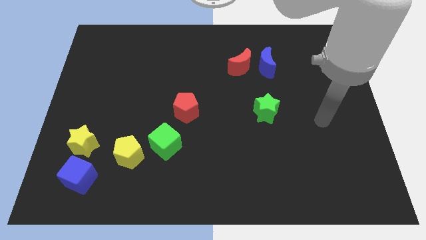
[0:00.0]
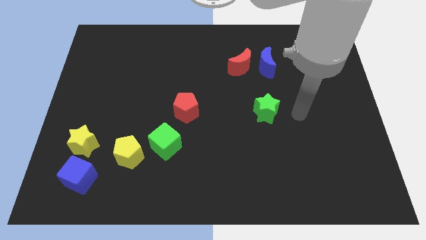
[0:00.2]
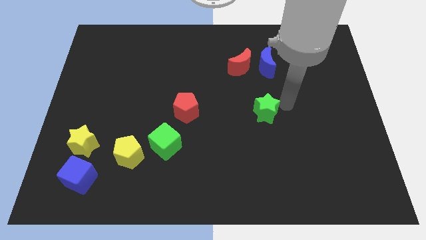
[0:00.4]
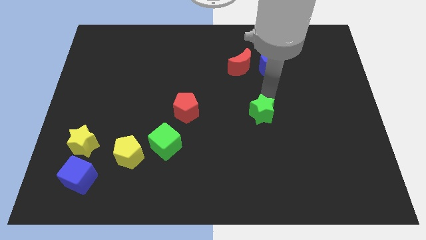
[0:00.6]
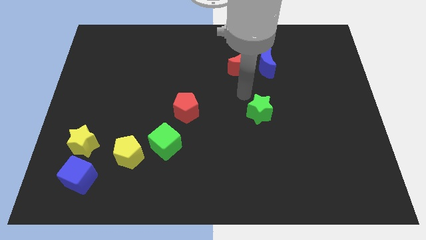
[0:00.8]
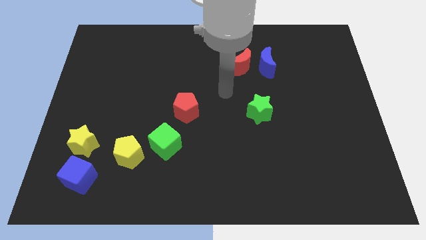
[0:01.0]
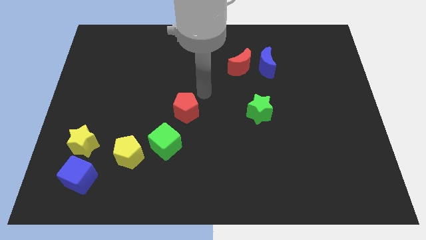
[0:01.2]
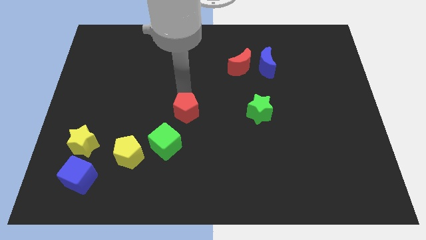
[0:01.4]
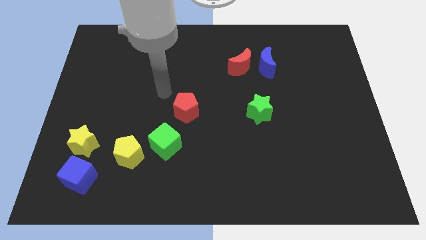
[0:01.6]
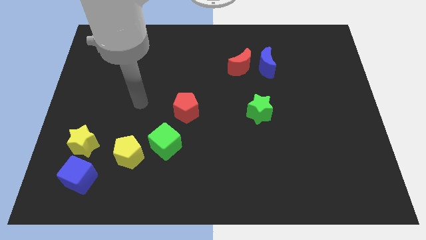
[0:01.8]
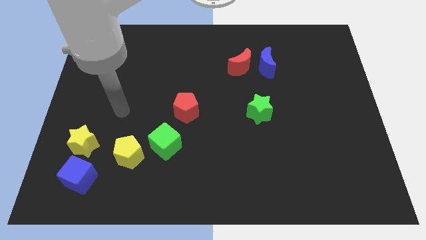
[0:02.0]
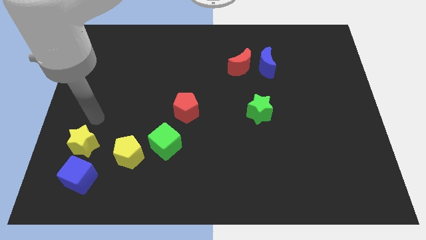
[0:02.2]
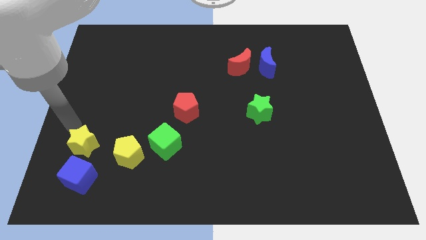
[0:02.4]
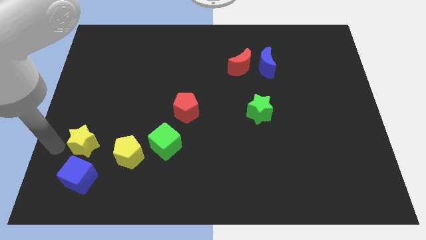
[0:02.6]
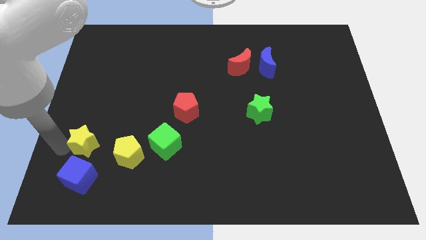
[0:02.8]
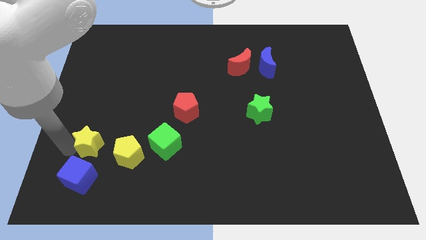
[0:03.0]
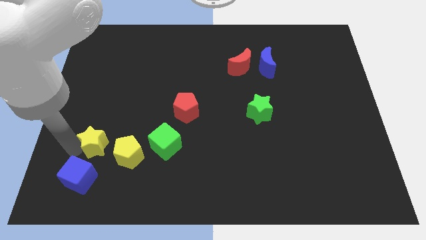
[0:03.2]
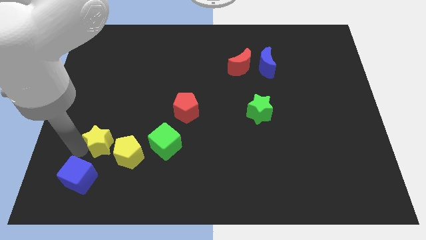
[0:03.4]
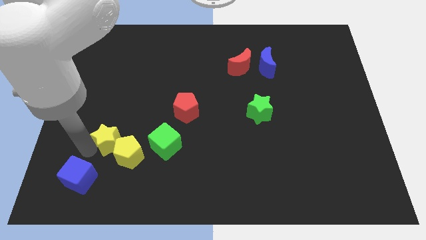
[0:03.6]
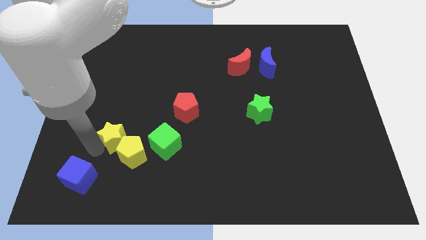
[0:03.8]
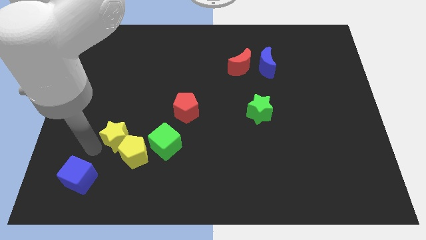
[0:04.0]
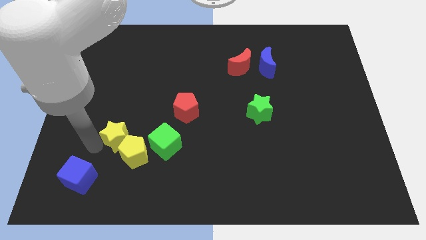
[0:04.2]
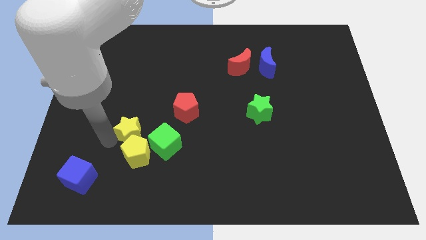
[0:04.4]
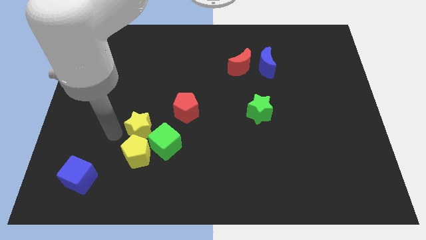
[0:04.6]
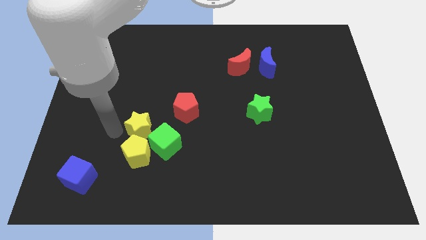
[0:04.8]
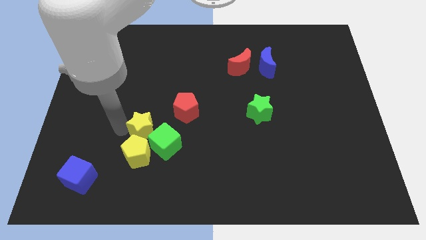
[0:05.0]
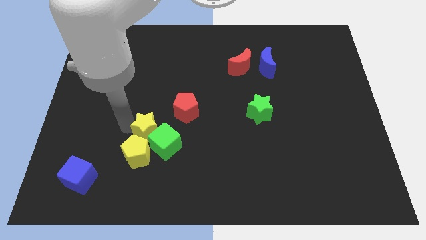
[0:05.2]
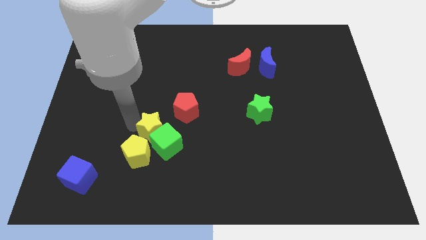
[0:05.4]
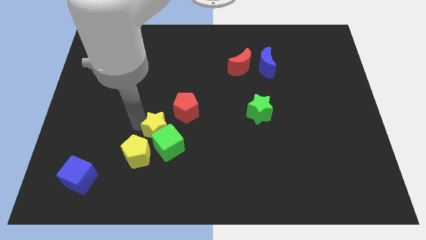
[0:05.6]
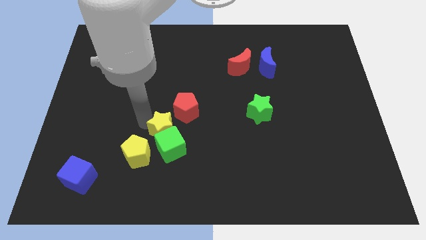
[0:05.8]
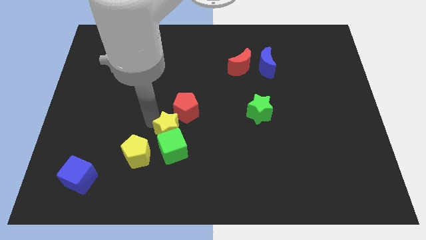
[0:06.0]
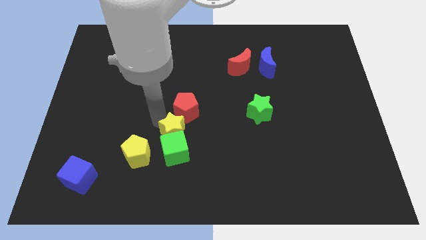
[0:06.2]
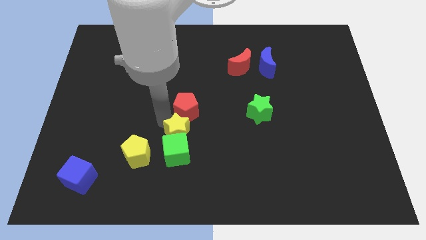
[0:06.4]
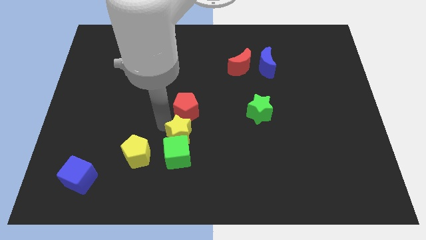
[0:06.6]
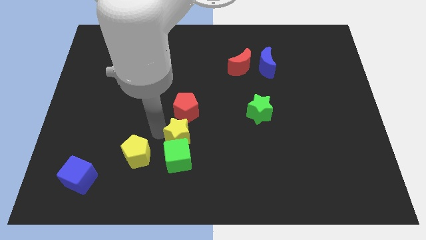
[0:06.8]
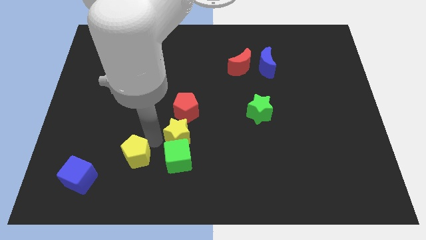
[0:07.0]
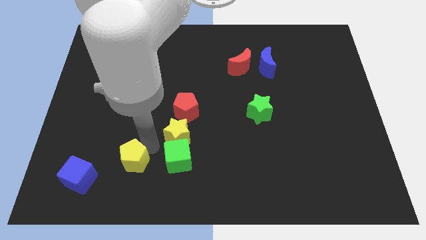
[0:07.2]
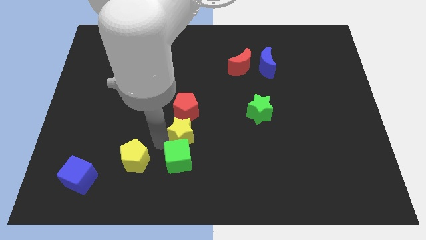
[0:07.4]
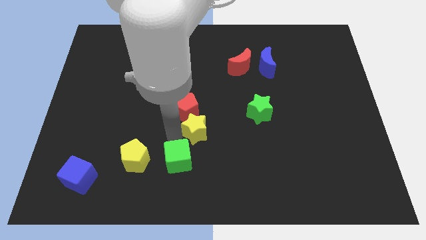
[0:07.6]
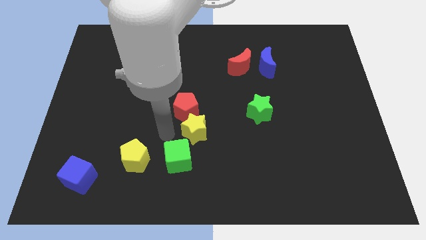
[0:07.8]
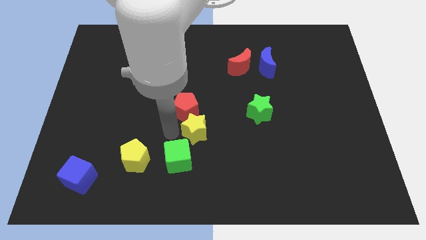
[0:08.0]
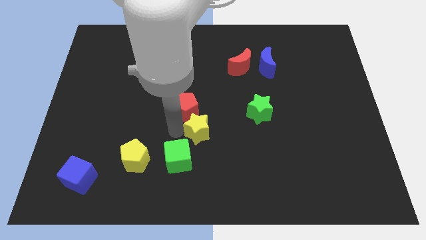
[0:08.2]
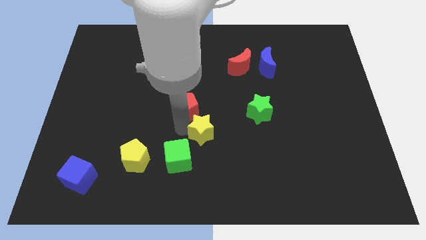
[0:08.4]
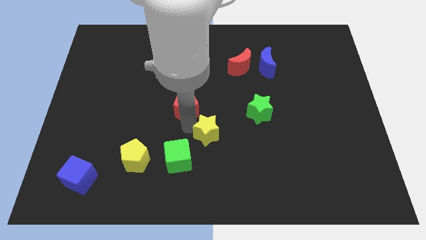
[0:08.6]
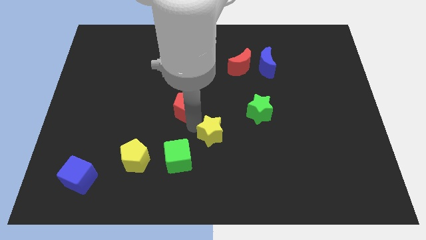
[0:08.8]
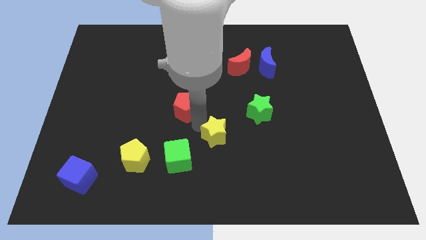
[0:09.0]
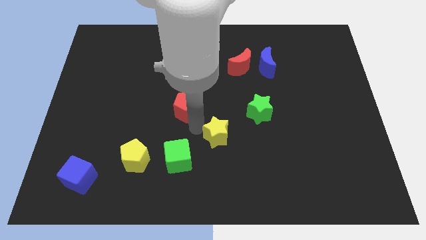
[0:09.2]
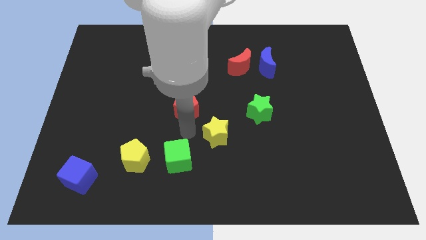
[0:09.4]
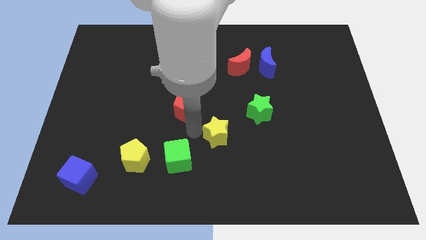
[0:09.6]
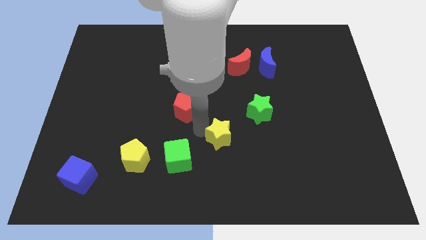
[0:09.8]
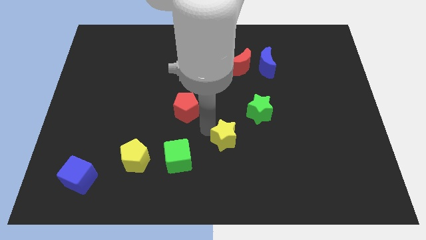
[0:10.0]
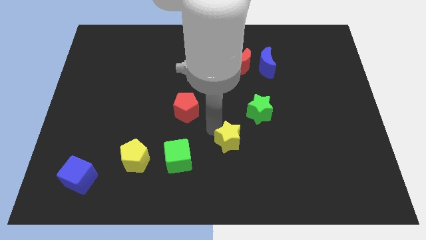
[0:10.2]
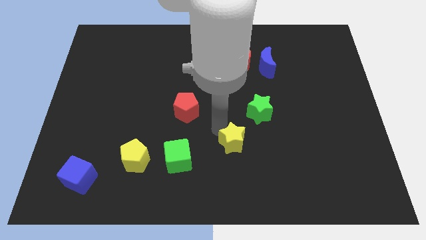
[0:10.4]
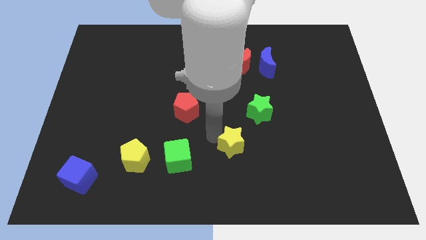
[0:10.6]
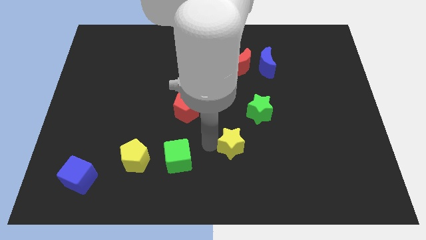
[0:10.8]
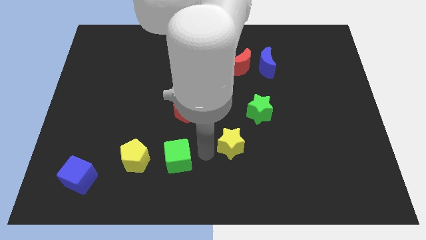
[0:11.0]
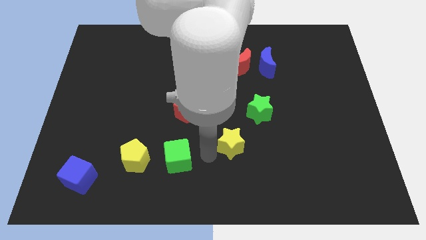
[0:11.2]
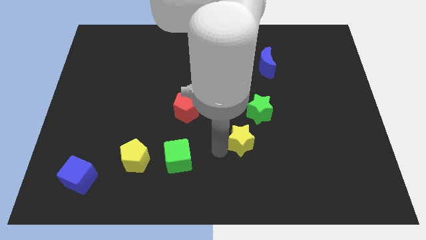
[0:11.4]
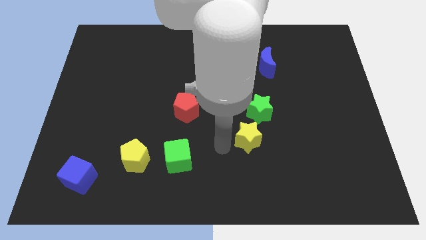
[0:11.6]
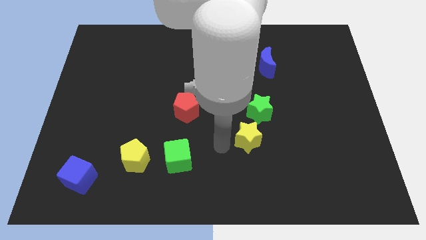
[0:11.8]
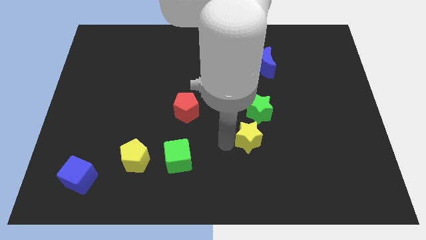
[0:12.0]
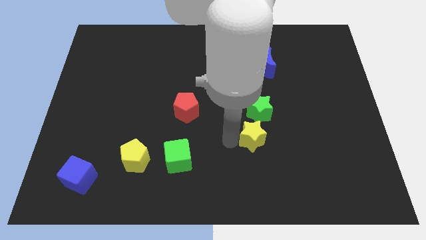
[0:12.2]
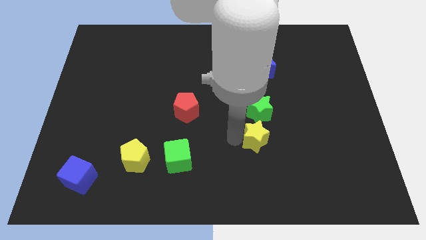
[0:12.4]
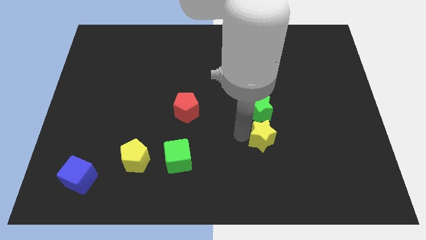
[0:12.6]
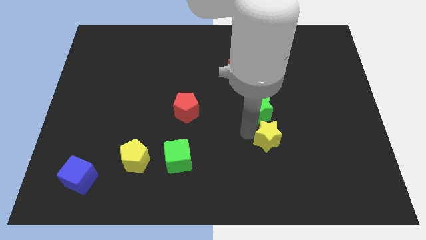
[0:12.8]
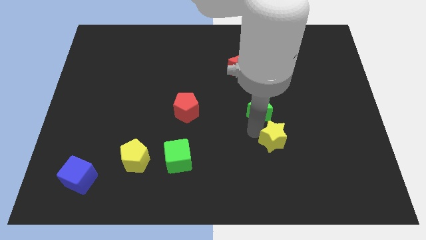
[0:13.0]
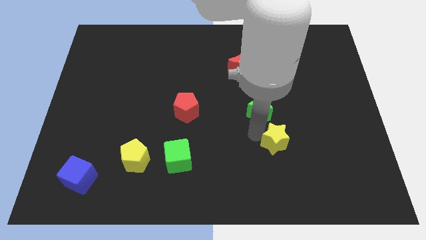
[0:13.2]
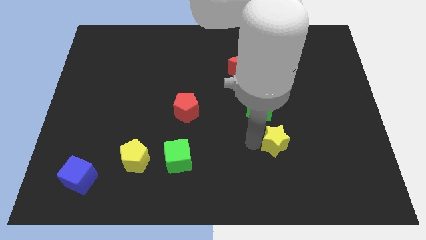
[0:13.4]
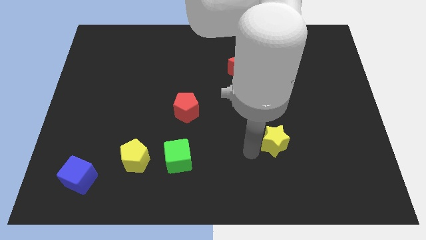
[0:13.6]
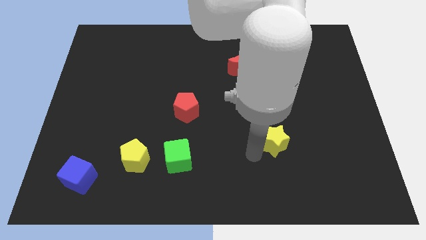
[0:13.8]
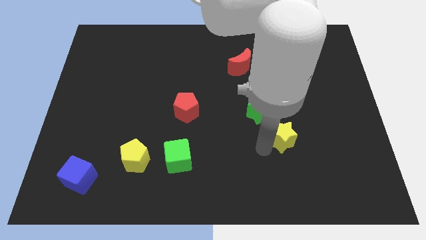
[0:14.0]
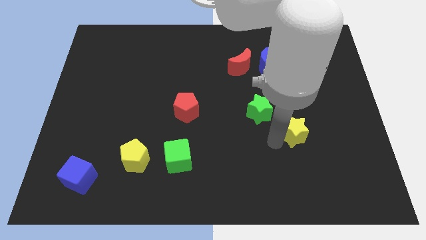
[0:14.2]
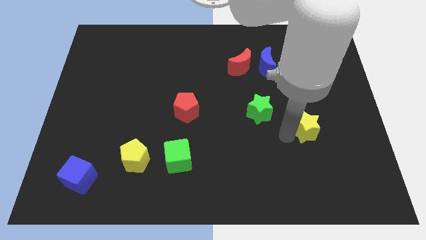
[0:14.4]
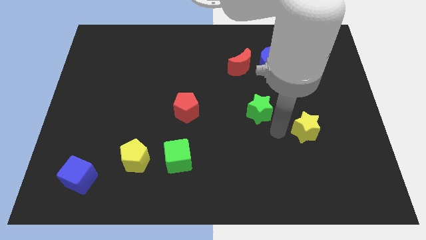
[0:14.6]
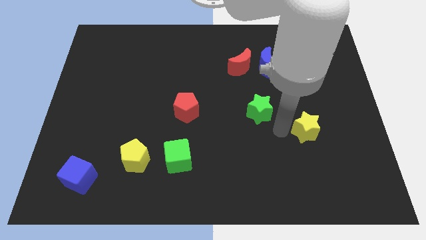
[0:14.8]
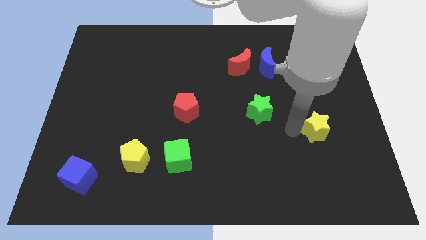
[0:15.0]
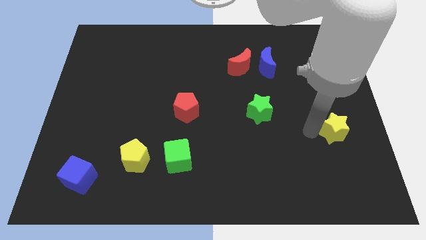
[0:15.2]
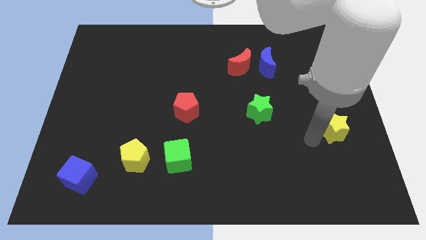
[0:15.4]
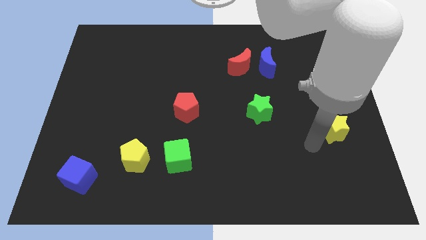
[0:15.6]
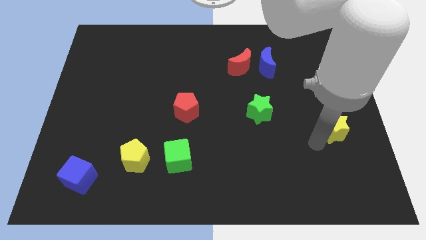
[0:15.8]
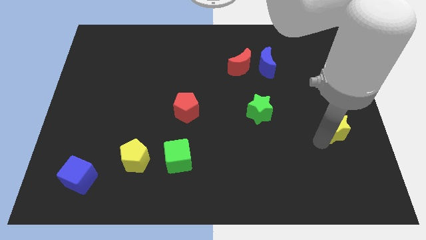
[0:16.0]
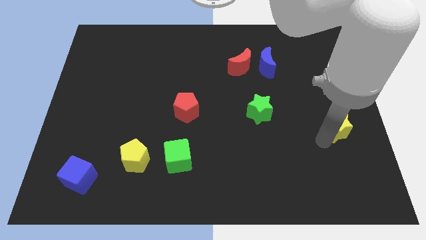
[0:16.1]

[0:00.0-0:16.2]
slide the yellow star to the right side of the board
